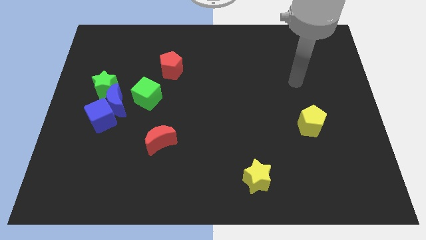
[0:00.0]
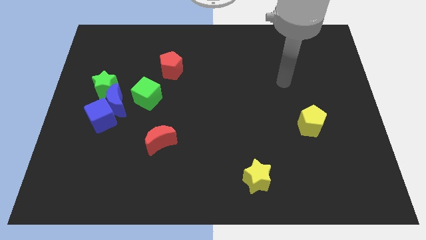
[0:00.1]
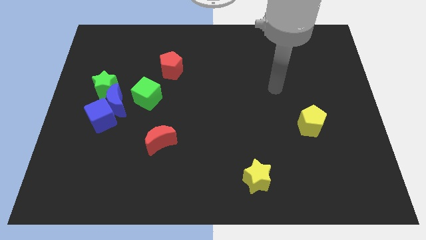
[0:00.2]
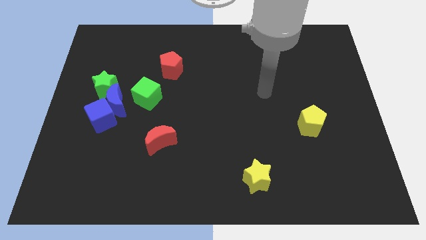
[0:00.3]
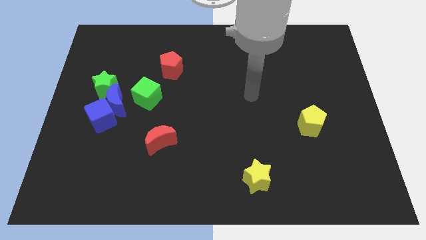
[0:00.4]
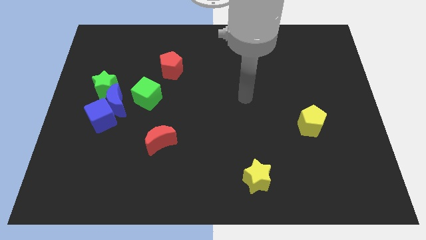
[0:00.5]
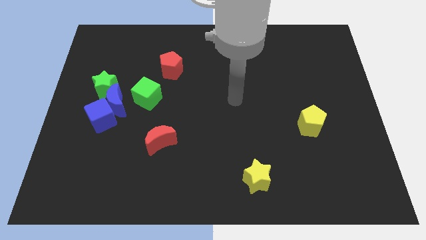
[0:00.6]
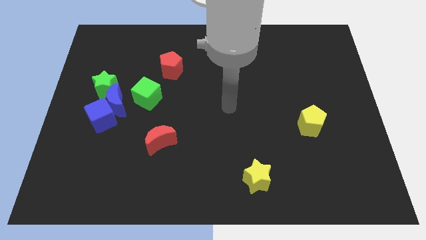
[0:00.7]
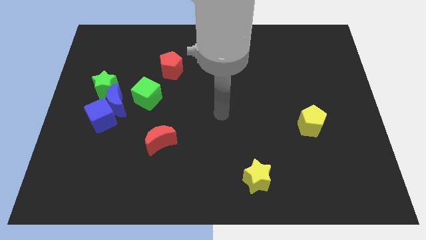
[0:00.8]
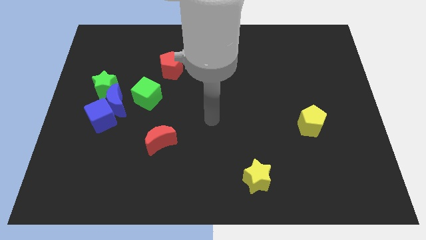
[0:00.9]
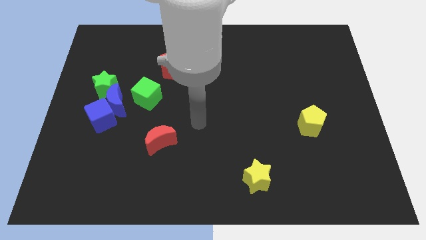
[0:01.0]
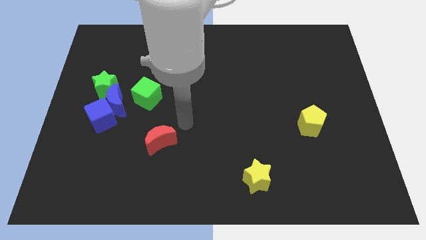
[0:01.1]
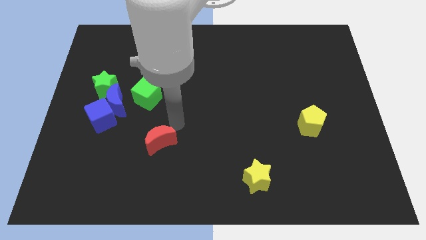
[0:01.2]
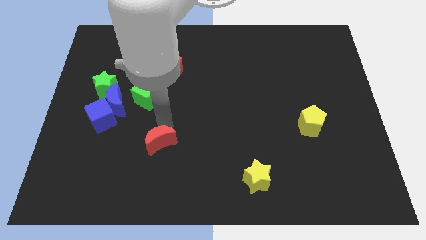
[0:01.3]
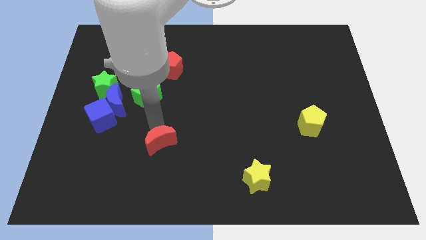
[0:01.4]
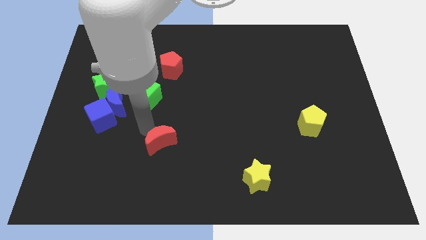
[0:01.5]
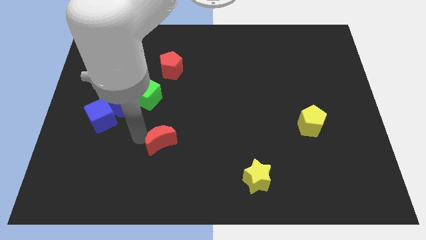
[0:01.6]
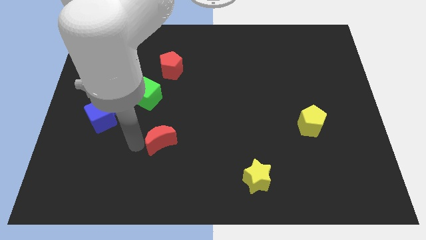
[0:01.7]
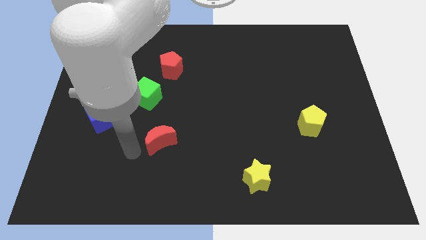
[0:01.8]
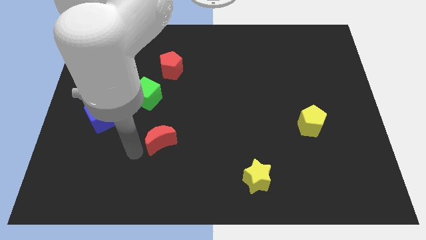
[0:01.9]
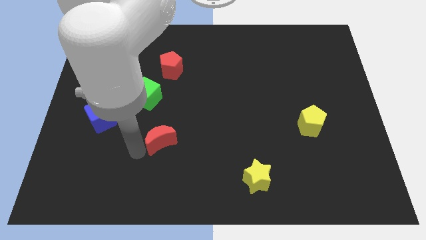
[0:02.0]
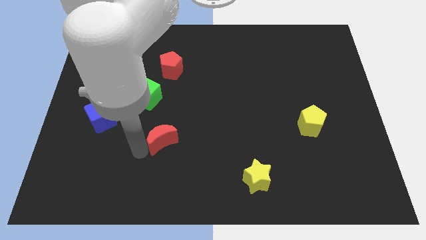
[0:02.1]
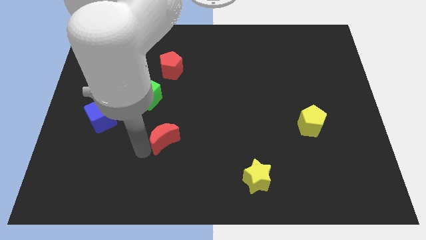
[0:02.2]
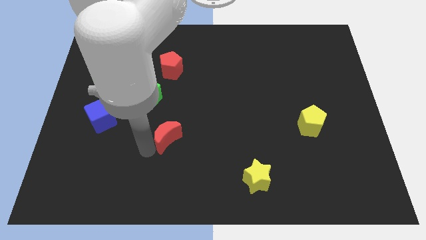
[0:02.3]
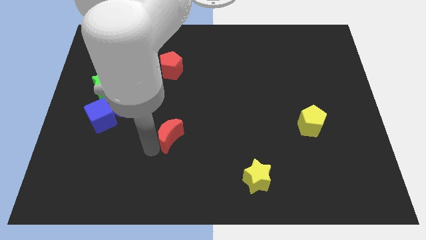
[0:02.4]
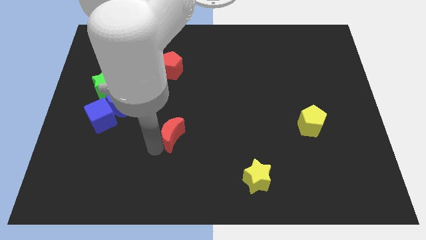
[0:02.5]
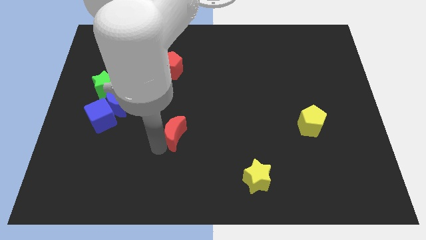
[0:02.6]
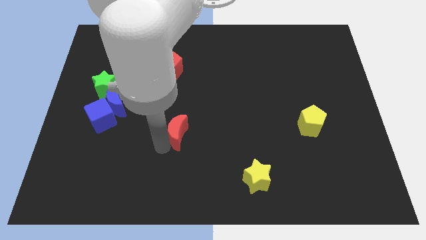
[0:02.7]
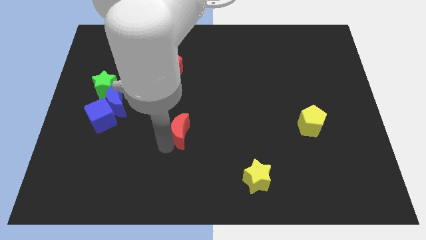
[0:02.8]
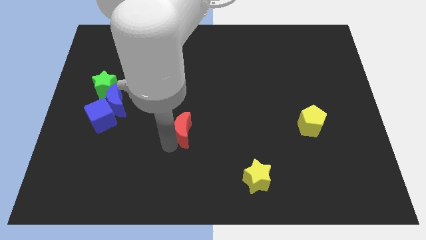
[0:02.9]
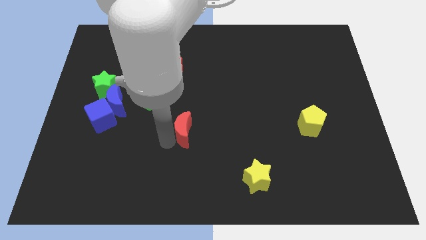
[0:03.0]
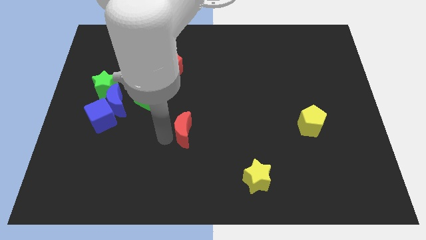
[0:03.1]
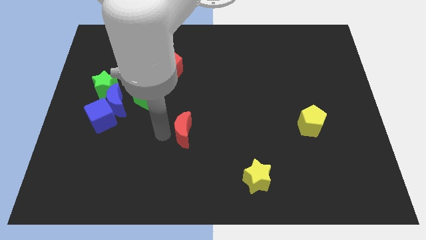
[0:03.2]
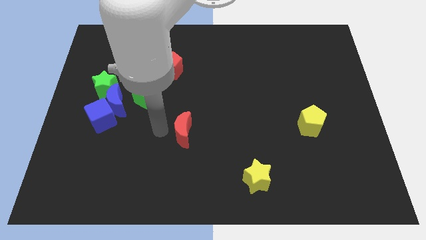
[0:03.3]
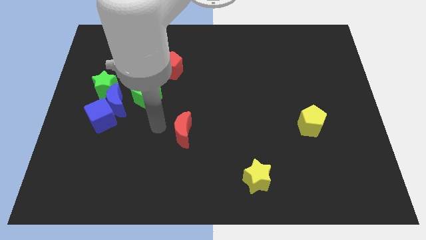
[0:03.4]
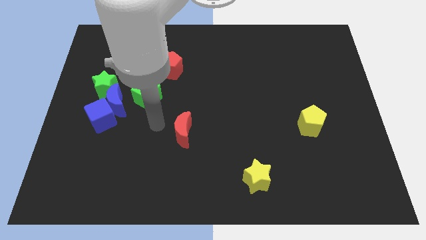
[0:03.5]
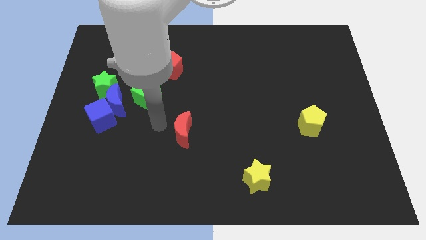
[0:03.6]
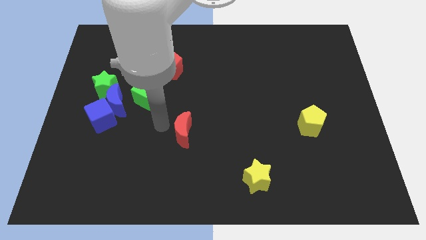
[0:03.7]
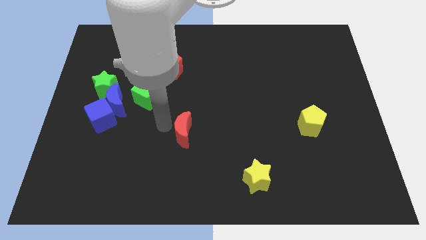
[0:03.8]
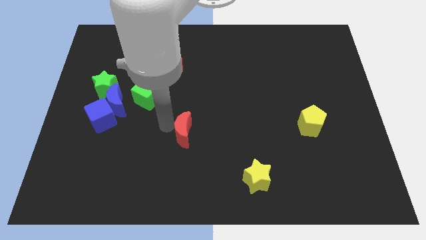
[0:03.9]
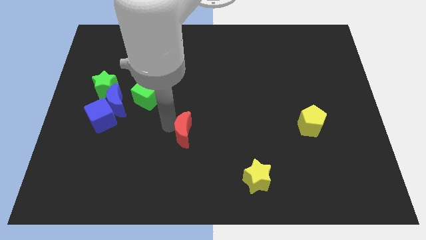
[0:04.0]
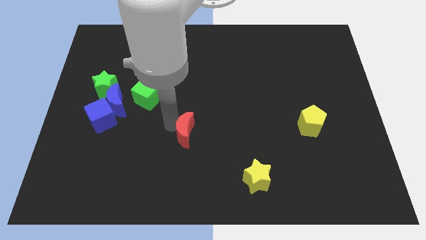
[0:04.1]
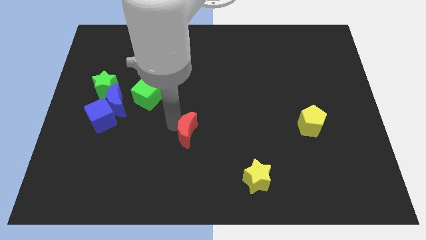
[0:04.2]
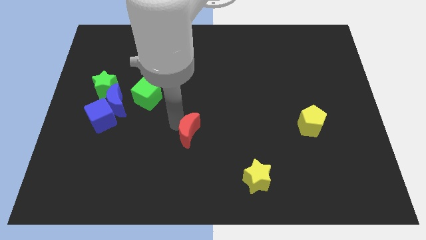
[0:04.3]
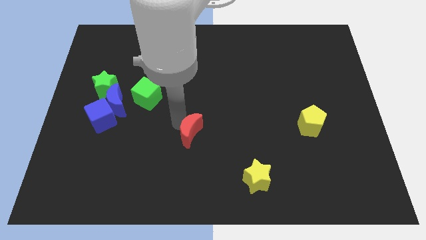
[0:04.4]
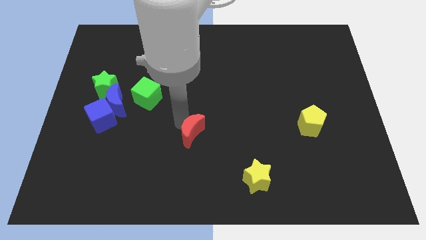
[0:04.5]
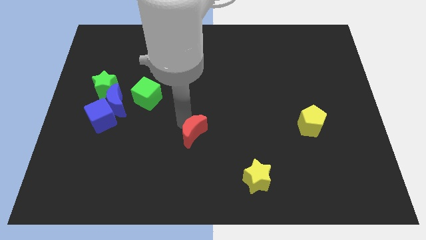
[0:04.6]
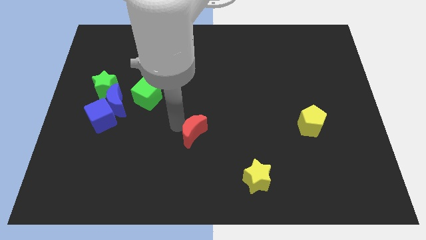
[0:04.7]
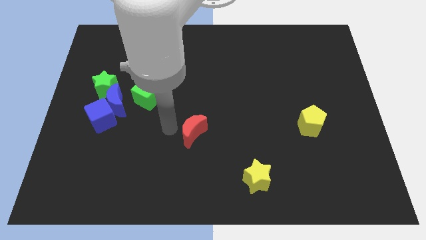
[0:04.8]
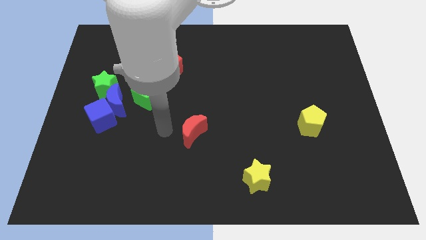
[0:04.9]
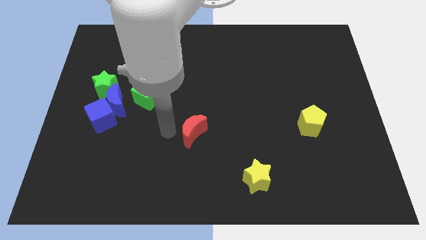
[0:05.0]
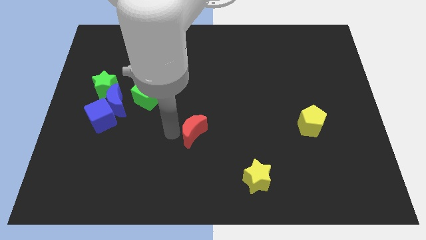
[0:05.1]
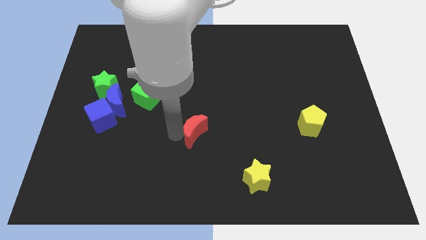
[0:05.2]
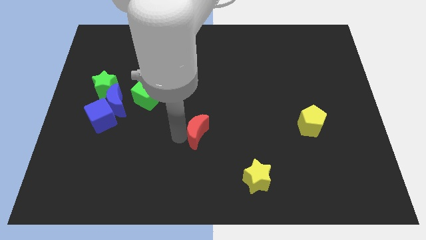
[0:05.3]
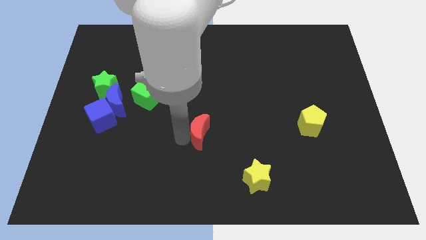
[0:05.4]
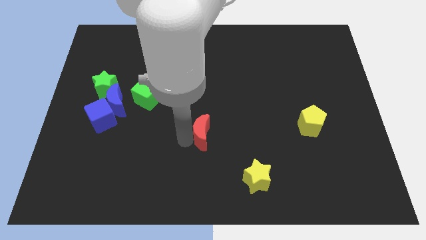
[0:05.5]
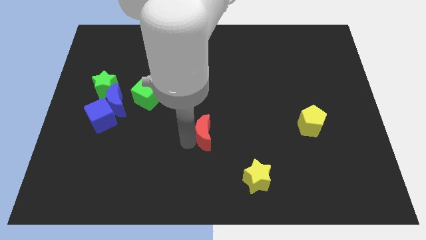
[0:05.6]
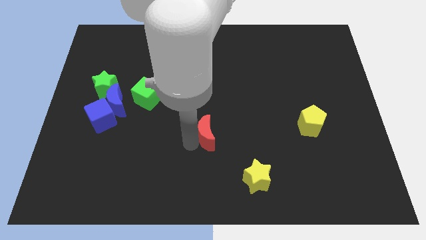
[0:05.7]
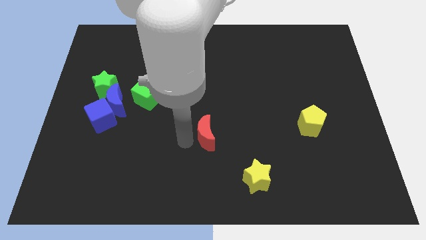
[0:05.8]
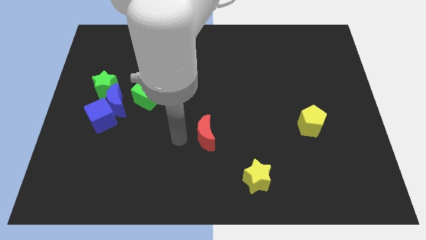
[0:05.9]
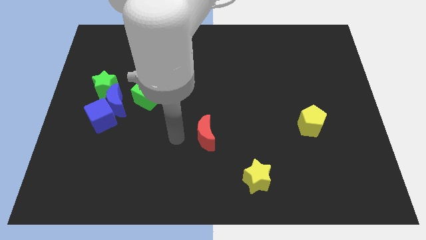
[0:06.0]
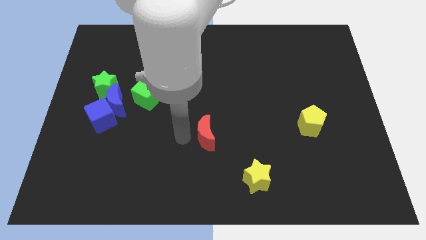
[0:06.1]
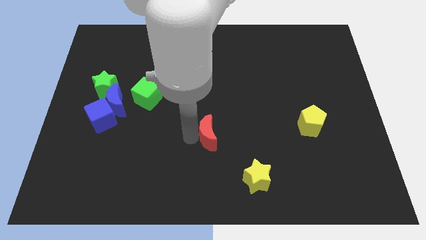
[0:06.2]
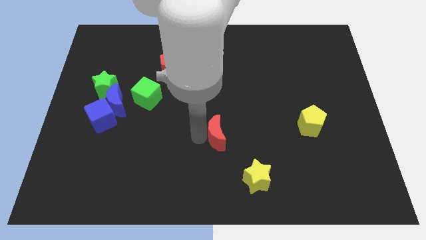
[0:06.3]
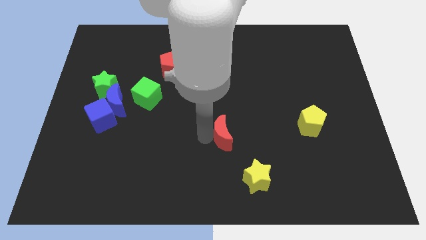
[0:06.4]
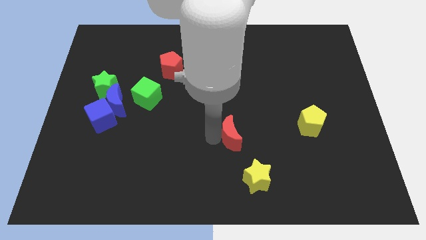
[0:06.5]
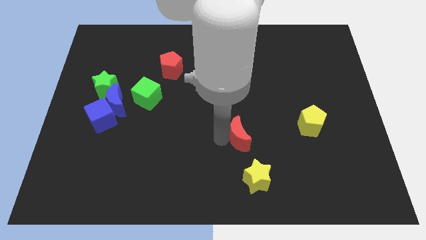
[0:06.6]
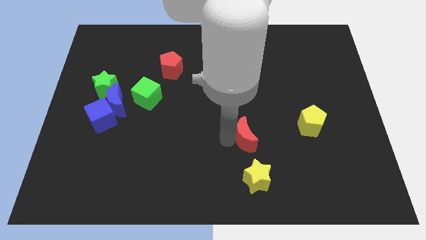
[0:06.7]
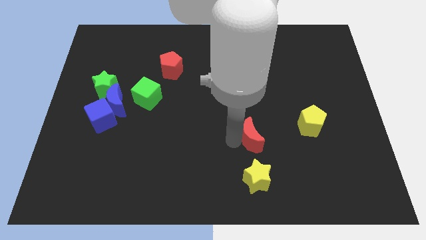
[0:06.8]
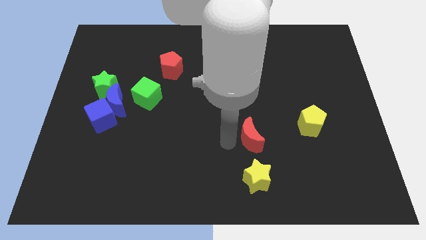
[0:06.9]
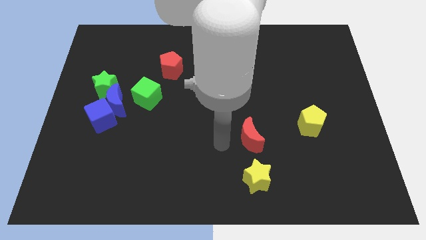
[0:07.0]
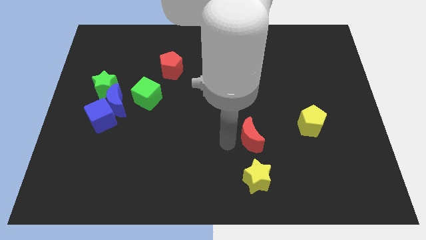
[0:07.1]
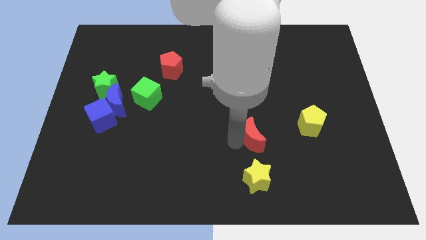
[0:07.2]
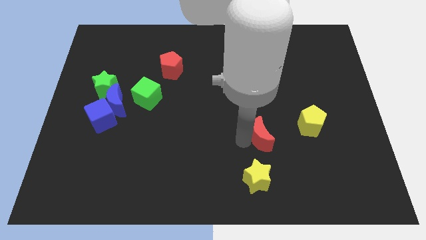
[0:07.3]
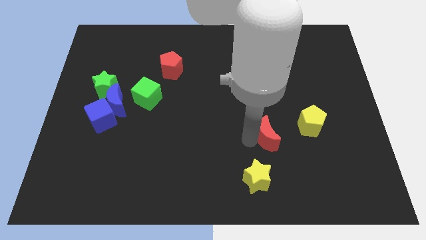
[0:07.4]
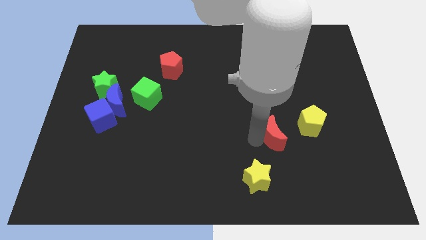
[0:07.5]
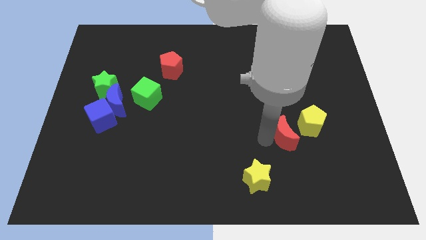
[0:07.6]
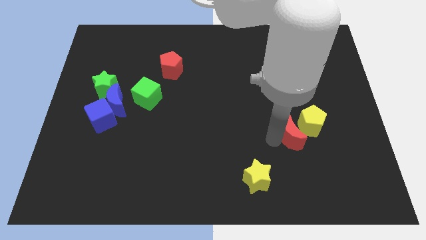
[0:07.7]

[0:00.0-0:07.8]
slide the red moon towards the yellow pentagon
